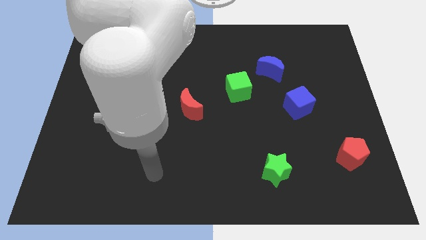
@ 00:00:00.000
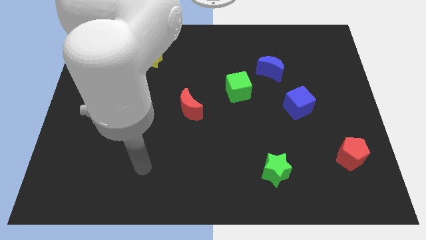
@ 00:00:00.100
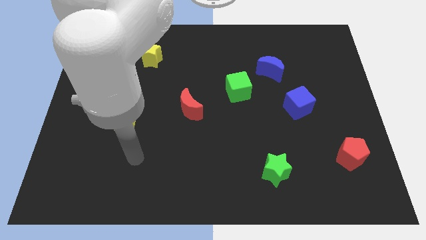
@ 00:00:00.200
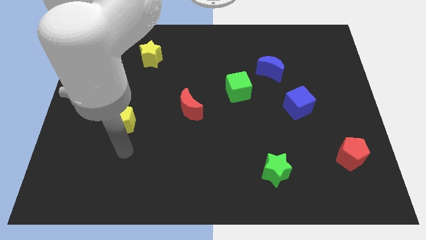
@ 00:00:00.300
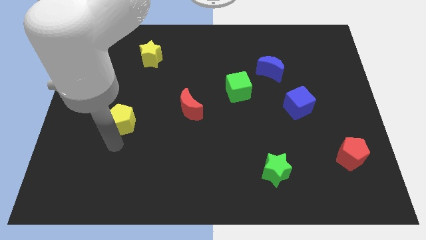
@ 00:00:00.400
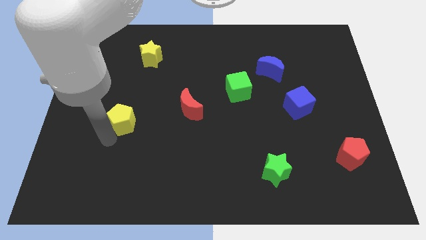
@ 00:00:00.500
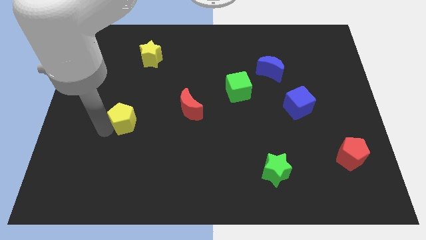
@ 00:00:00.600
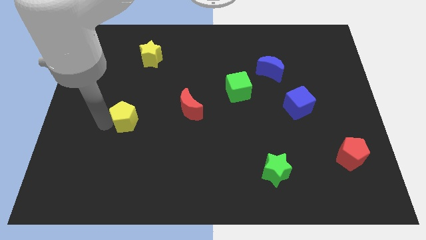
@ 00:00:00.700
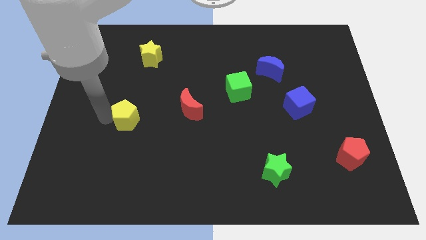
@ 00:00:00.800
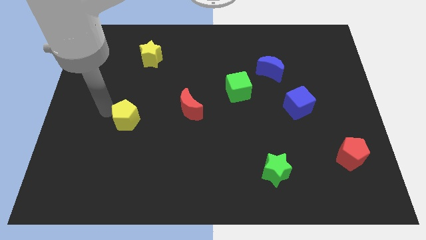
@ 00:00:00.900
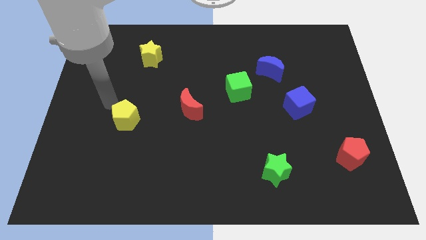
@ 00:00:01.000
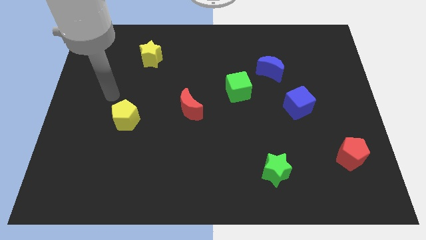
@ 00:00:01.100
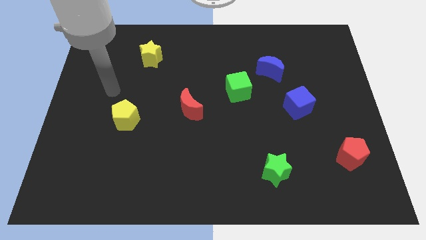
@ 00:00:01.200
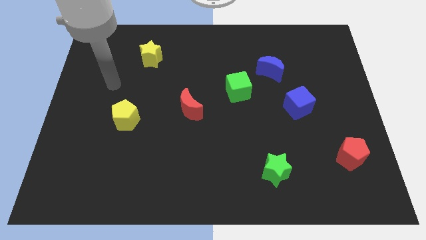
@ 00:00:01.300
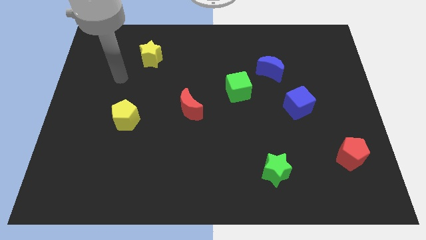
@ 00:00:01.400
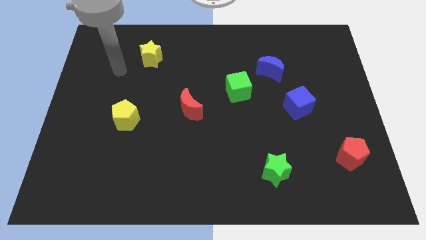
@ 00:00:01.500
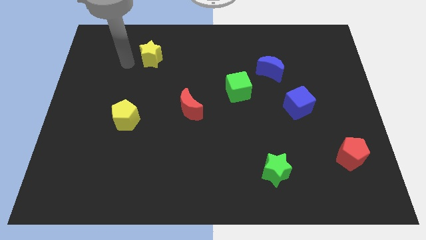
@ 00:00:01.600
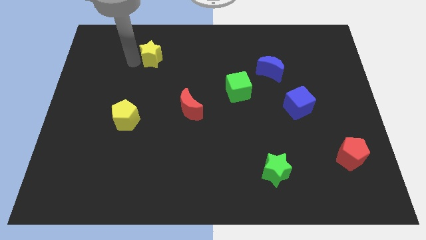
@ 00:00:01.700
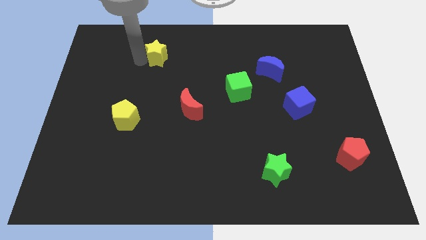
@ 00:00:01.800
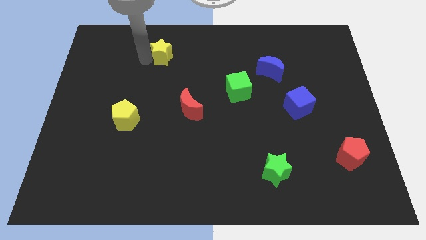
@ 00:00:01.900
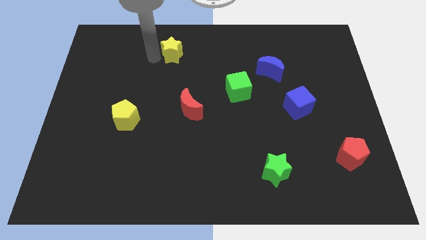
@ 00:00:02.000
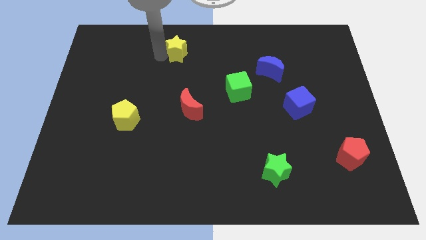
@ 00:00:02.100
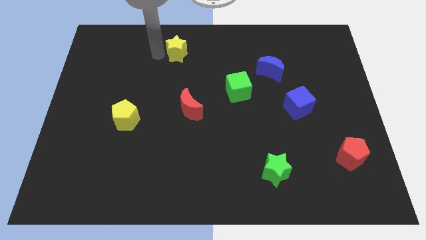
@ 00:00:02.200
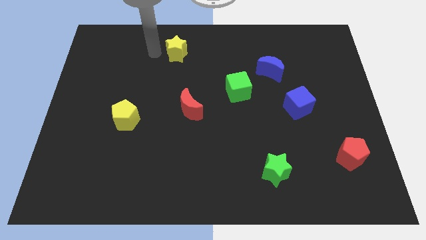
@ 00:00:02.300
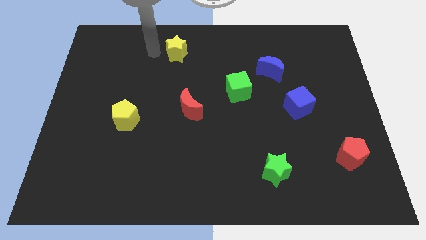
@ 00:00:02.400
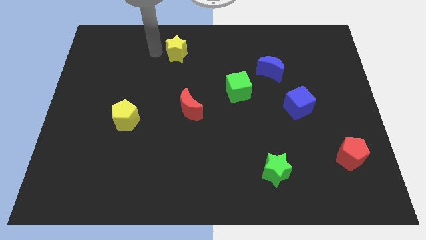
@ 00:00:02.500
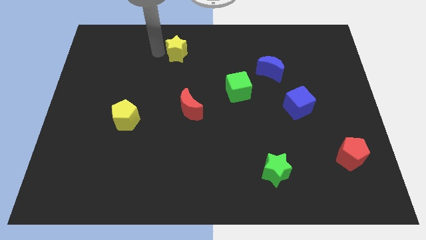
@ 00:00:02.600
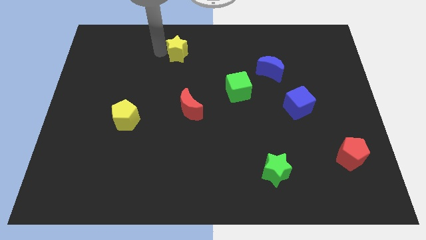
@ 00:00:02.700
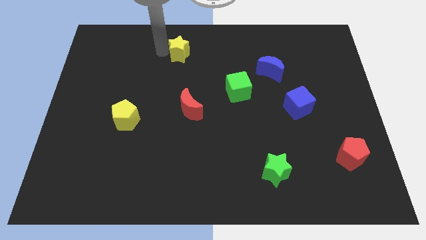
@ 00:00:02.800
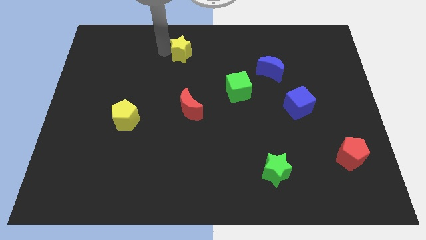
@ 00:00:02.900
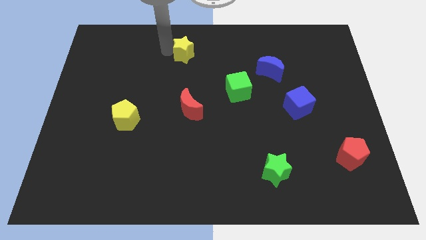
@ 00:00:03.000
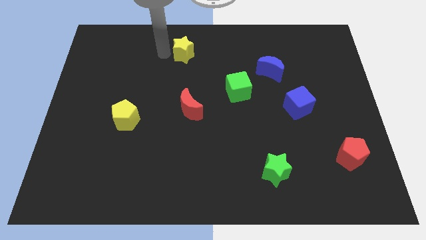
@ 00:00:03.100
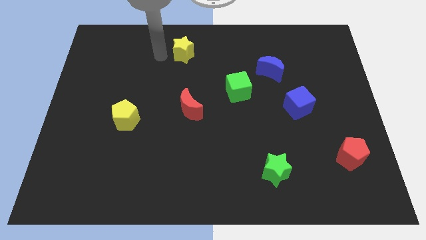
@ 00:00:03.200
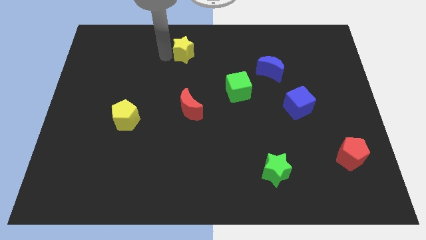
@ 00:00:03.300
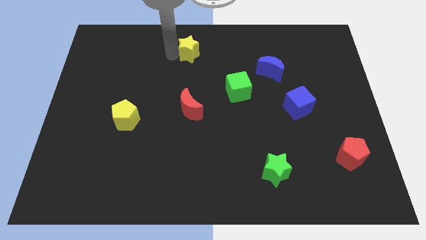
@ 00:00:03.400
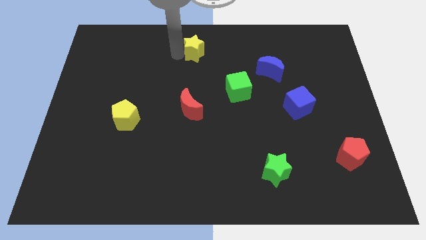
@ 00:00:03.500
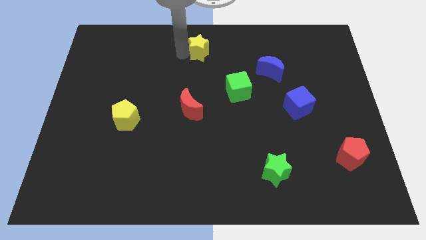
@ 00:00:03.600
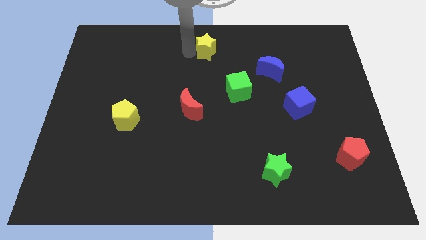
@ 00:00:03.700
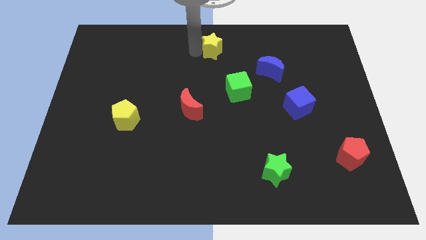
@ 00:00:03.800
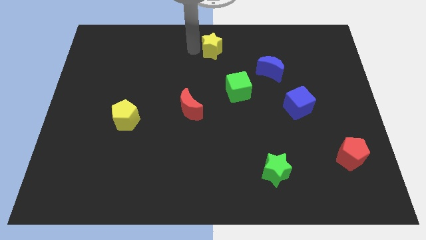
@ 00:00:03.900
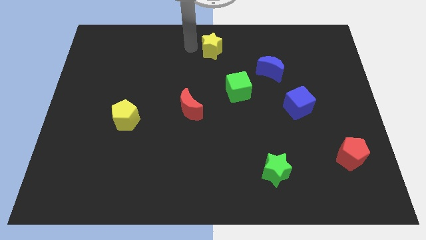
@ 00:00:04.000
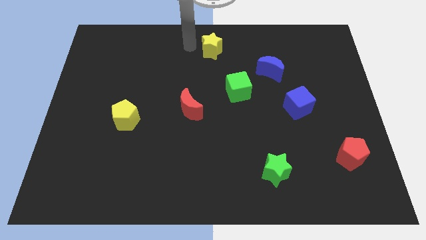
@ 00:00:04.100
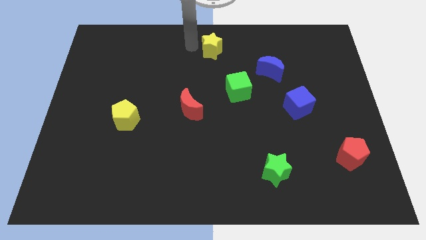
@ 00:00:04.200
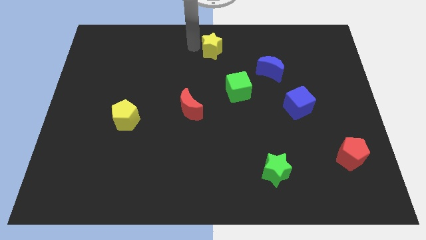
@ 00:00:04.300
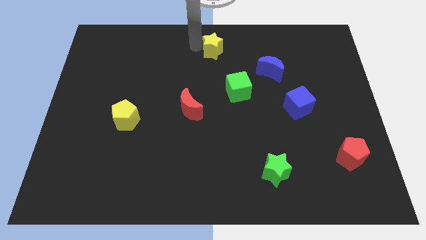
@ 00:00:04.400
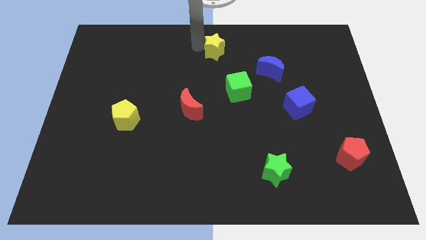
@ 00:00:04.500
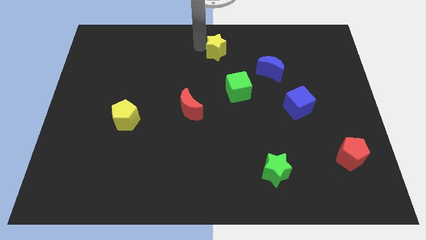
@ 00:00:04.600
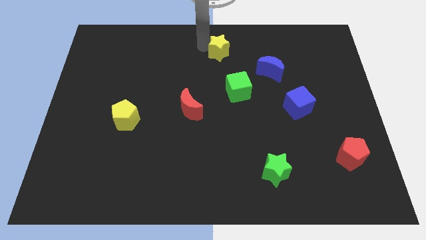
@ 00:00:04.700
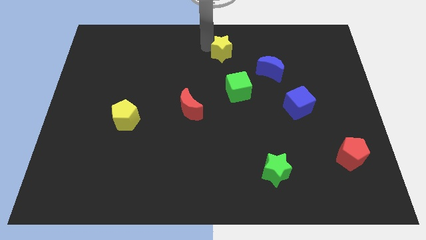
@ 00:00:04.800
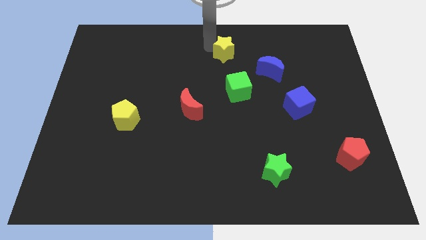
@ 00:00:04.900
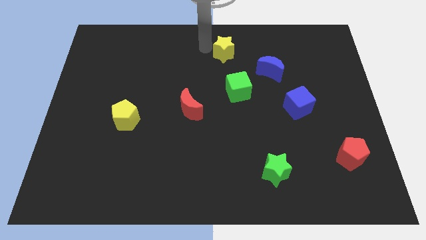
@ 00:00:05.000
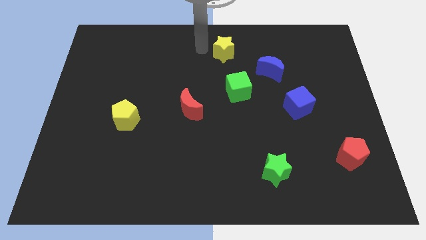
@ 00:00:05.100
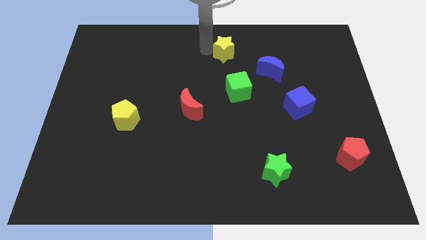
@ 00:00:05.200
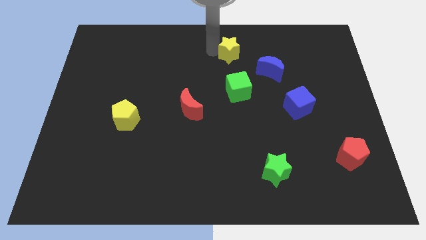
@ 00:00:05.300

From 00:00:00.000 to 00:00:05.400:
push the yellow star to the top left of the blue moon

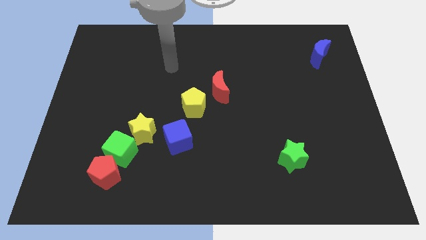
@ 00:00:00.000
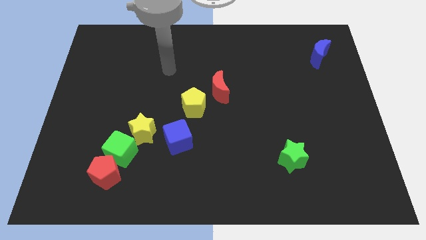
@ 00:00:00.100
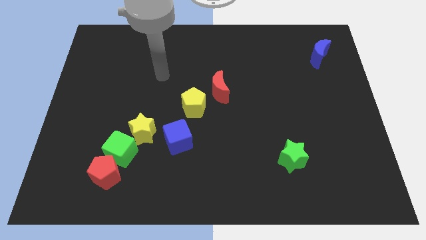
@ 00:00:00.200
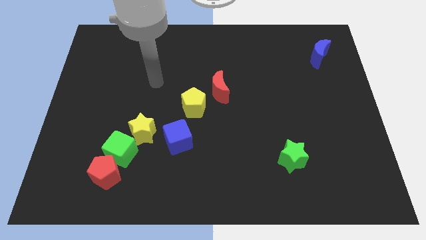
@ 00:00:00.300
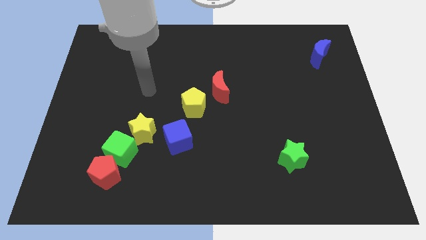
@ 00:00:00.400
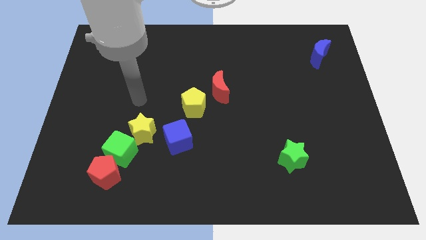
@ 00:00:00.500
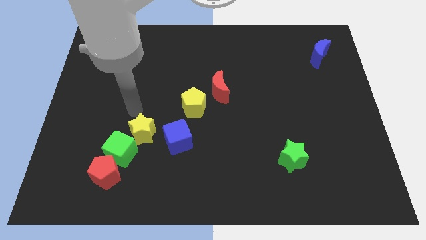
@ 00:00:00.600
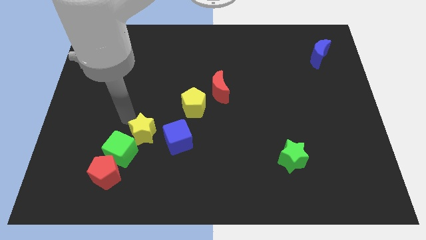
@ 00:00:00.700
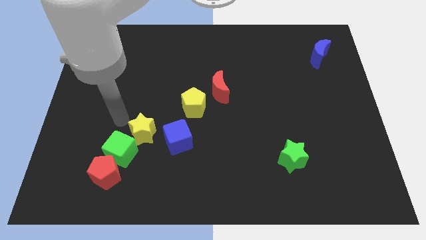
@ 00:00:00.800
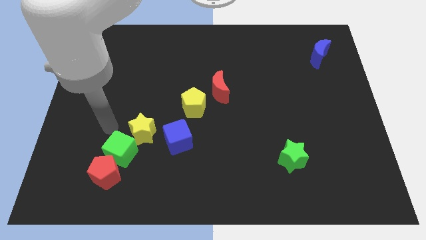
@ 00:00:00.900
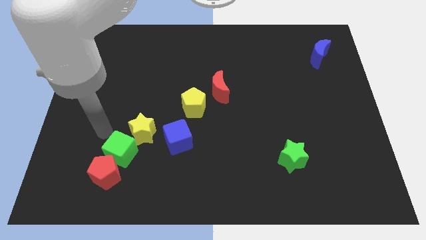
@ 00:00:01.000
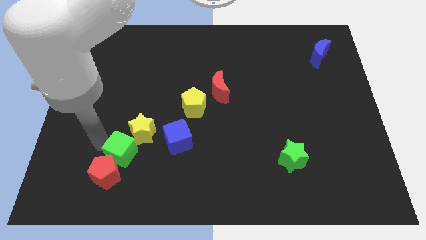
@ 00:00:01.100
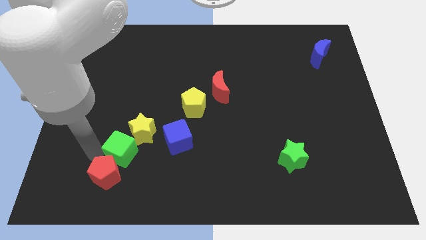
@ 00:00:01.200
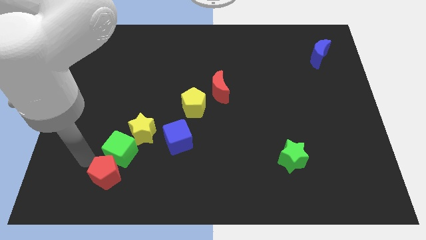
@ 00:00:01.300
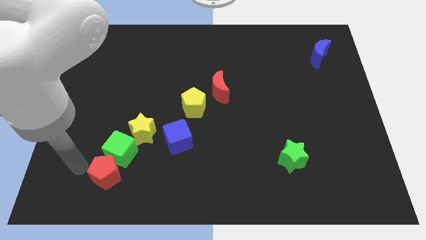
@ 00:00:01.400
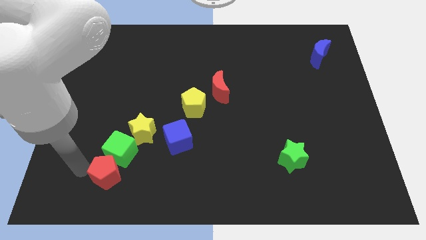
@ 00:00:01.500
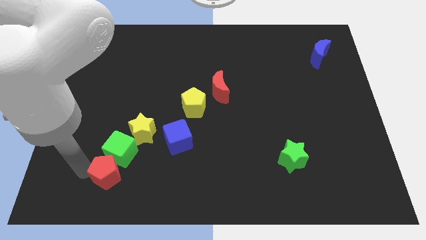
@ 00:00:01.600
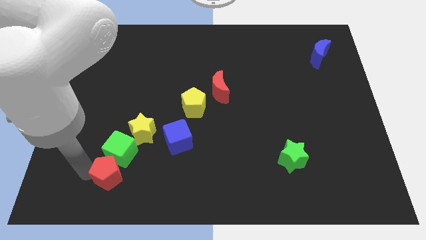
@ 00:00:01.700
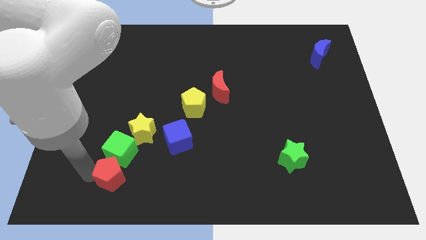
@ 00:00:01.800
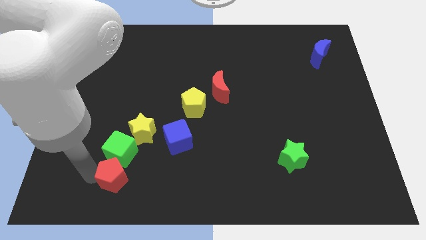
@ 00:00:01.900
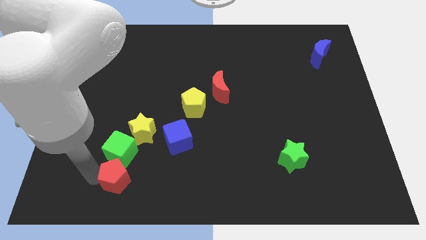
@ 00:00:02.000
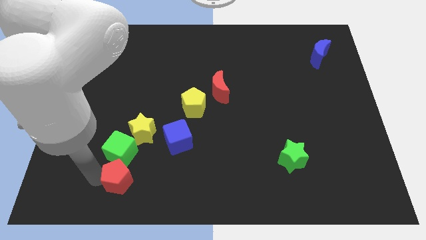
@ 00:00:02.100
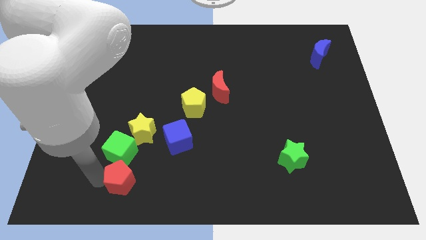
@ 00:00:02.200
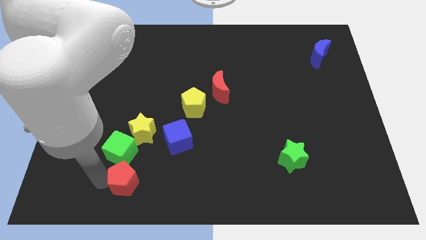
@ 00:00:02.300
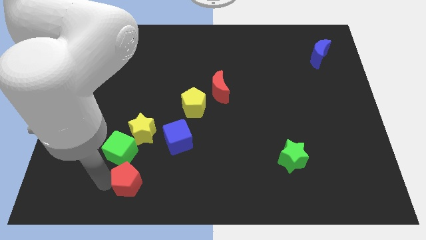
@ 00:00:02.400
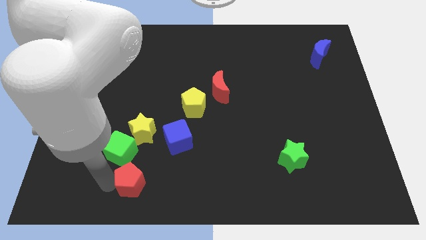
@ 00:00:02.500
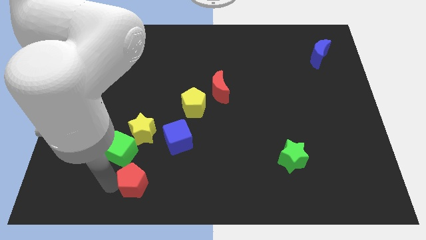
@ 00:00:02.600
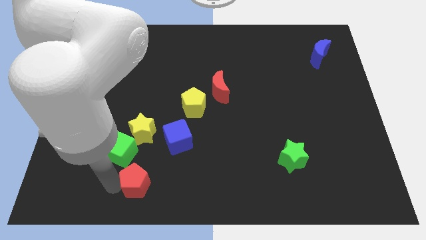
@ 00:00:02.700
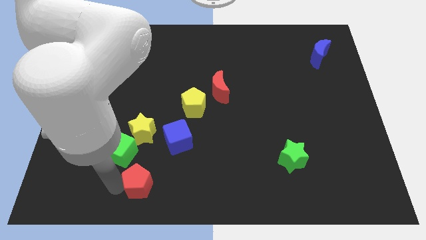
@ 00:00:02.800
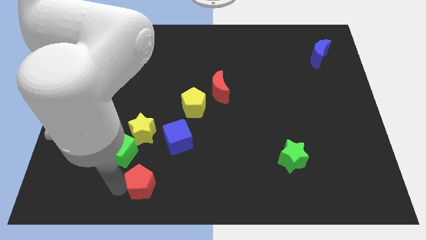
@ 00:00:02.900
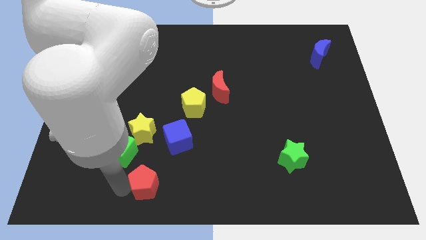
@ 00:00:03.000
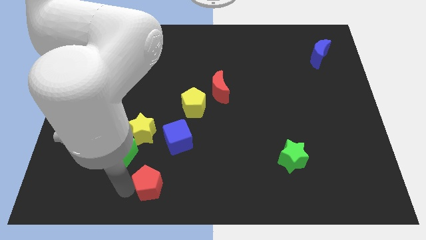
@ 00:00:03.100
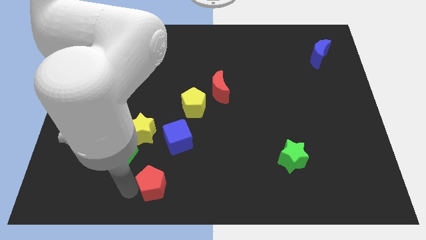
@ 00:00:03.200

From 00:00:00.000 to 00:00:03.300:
slide the red pentagon below the blue cube
